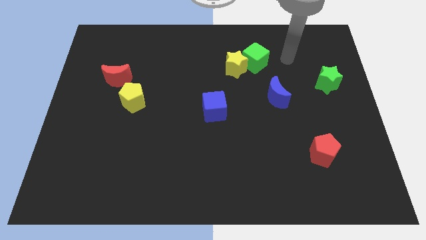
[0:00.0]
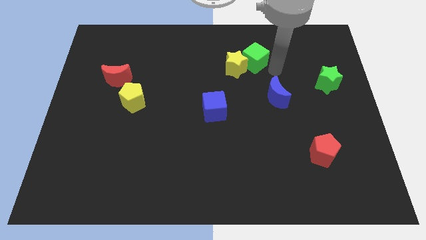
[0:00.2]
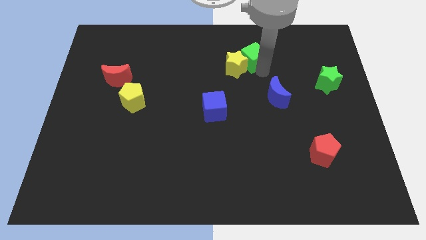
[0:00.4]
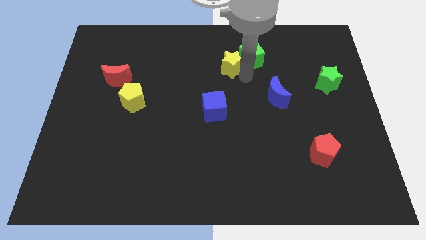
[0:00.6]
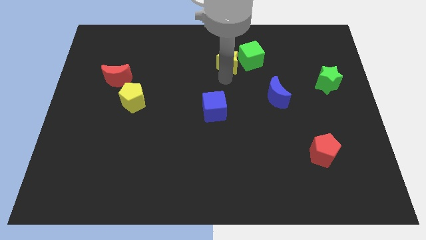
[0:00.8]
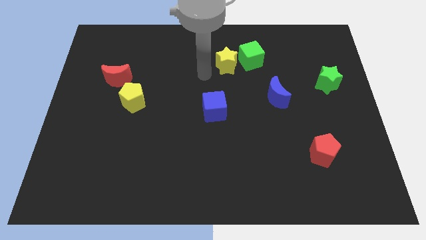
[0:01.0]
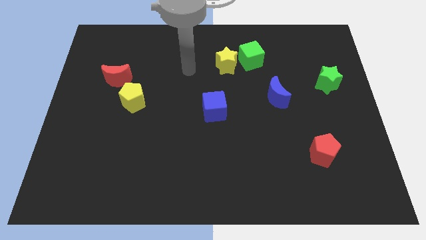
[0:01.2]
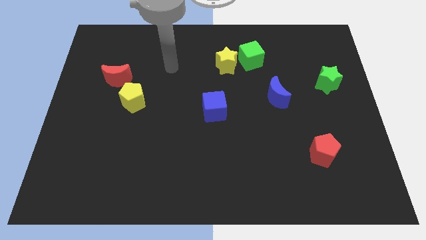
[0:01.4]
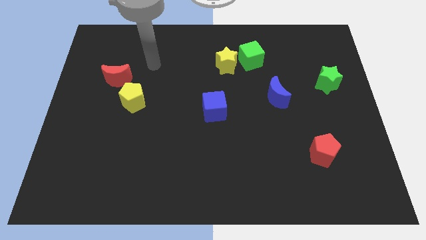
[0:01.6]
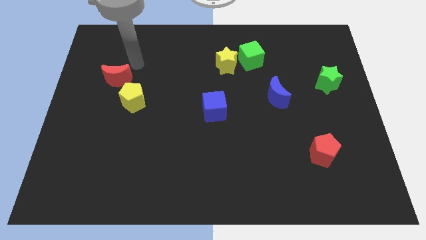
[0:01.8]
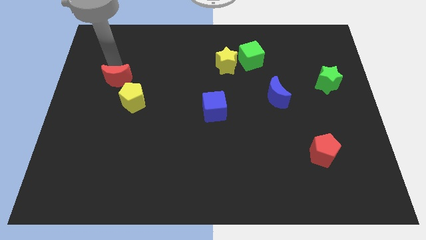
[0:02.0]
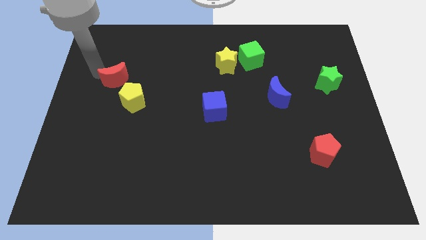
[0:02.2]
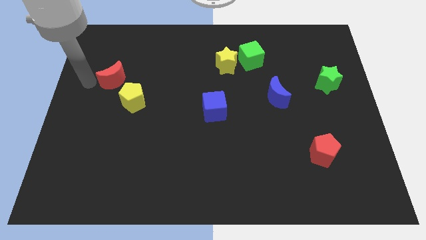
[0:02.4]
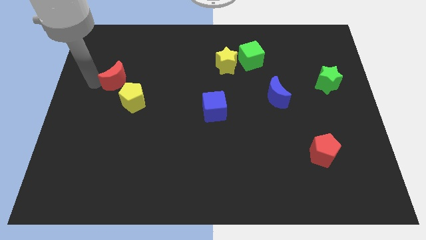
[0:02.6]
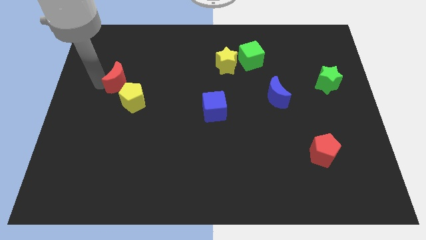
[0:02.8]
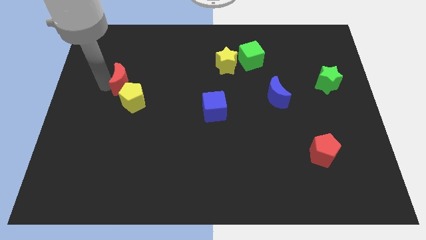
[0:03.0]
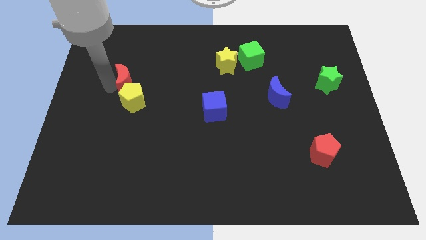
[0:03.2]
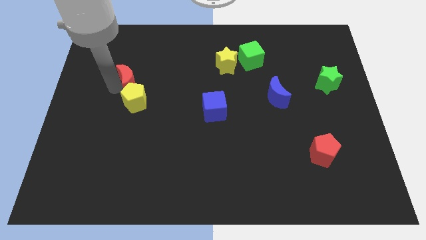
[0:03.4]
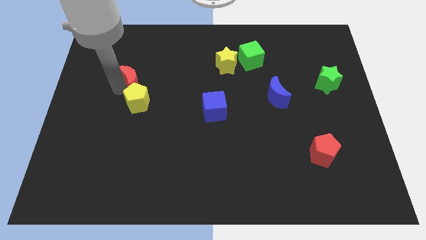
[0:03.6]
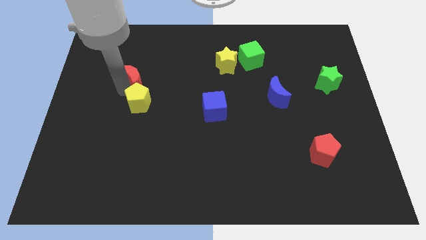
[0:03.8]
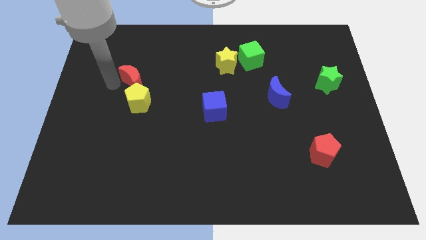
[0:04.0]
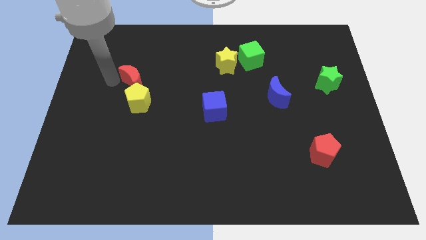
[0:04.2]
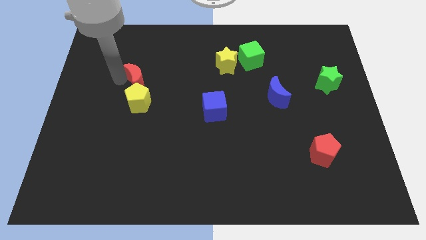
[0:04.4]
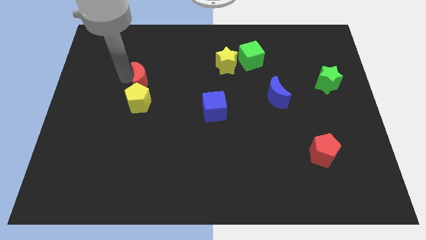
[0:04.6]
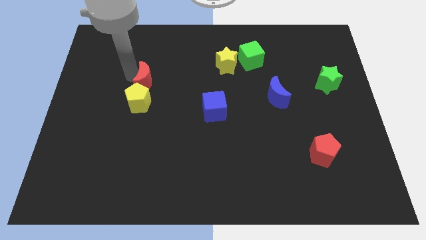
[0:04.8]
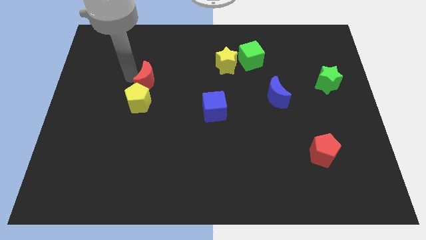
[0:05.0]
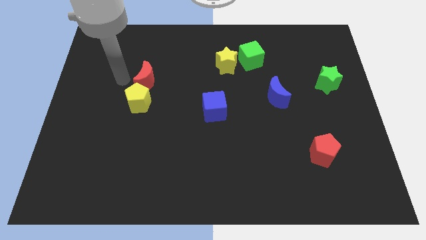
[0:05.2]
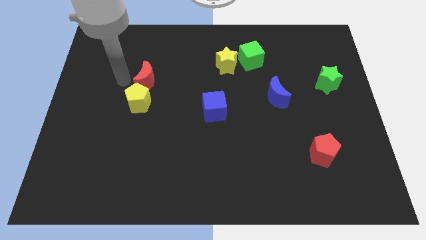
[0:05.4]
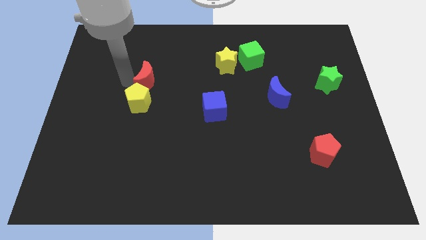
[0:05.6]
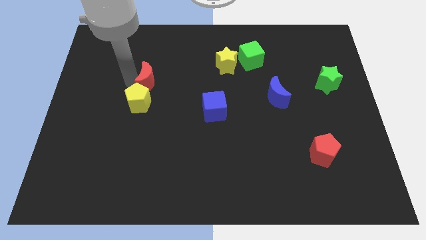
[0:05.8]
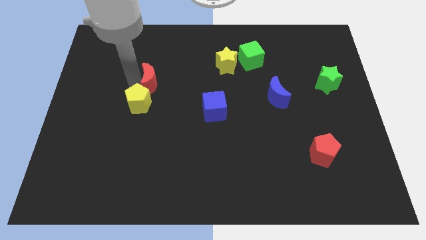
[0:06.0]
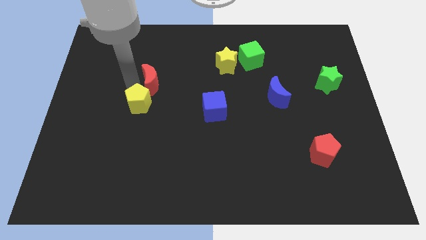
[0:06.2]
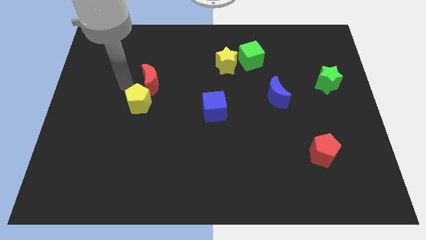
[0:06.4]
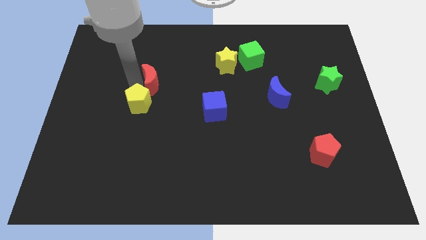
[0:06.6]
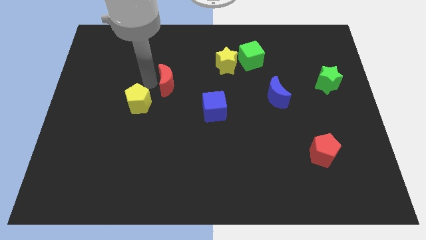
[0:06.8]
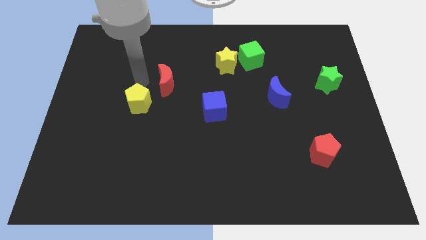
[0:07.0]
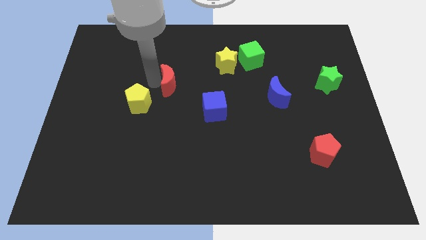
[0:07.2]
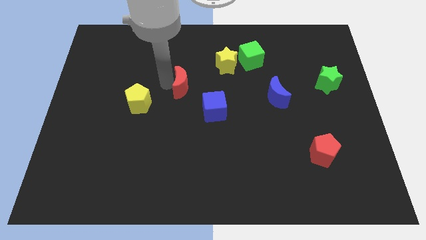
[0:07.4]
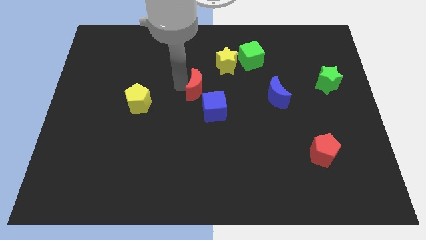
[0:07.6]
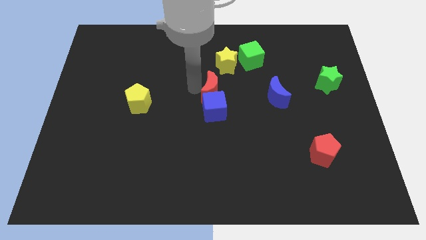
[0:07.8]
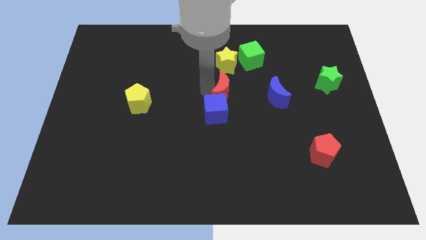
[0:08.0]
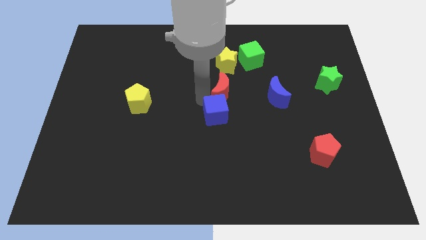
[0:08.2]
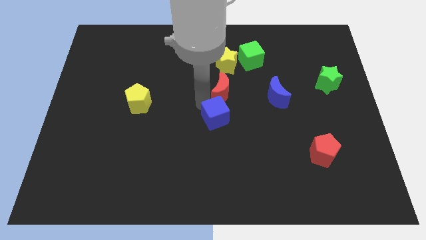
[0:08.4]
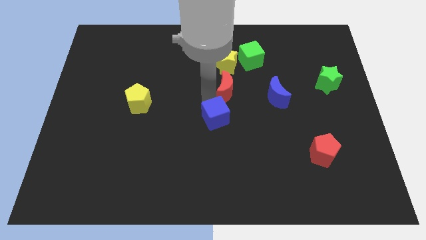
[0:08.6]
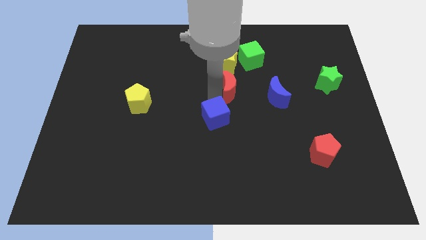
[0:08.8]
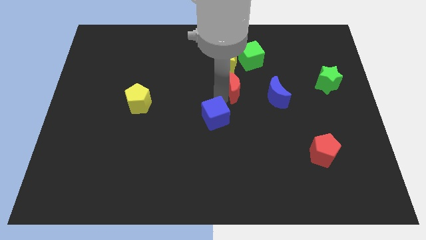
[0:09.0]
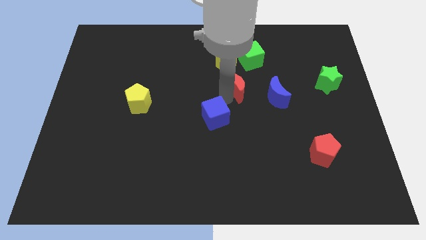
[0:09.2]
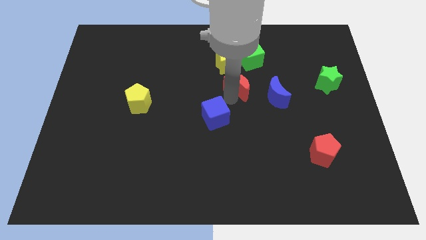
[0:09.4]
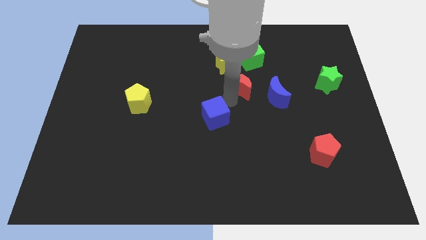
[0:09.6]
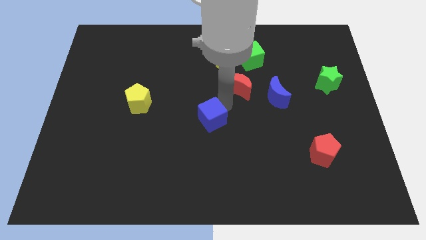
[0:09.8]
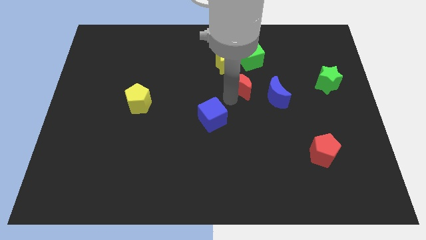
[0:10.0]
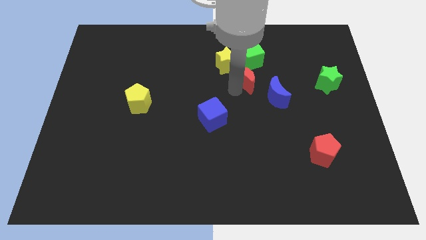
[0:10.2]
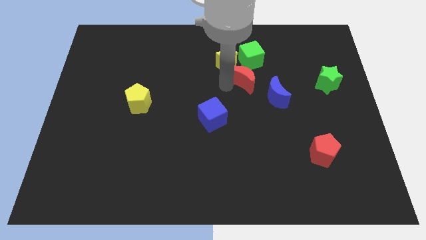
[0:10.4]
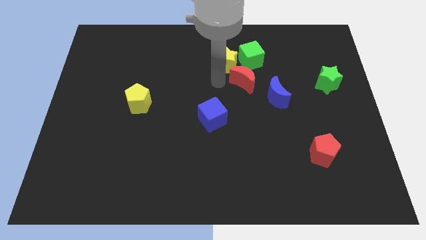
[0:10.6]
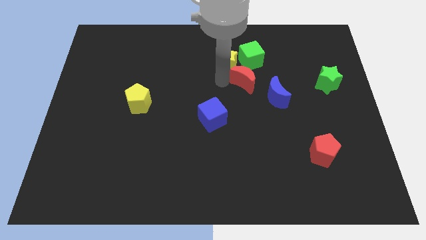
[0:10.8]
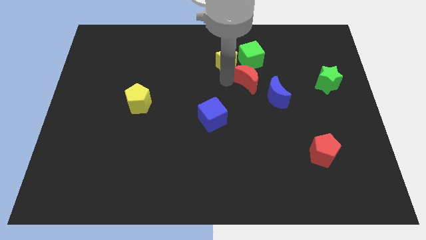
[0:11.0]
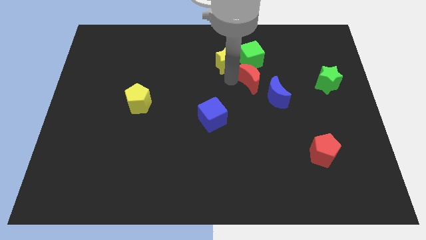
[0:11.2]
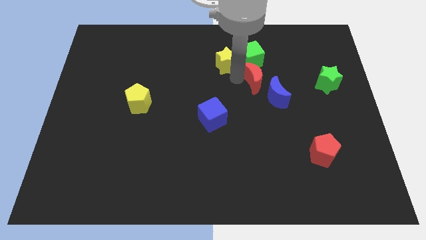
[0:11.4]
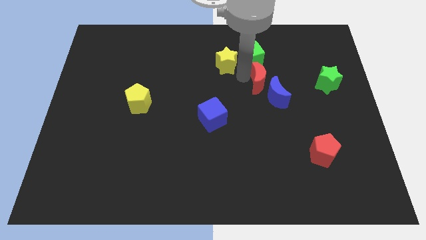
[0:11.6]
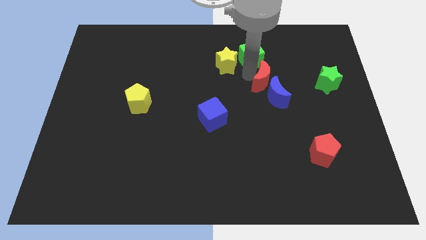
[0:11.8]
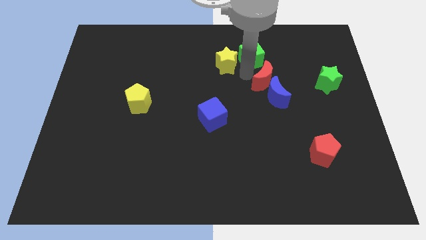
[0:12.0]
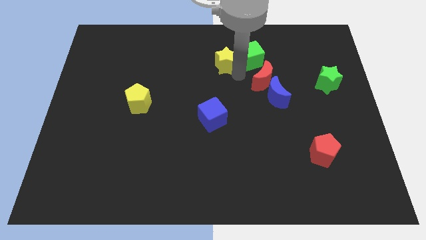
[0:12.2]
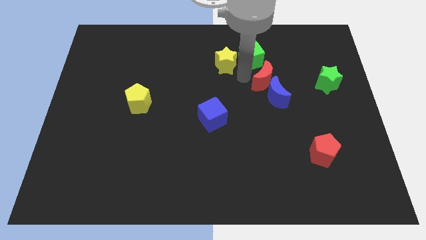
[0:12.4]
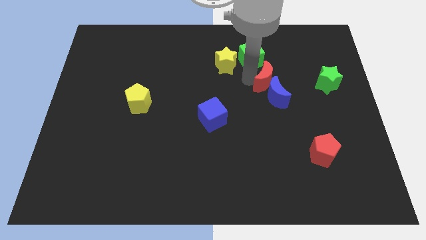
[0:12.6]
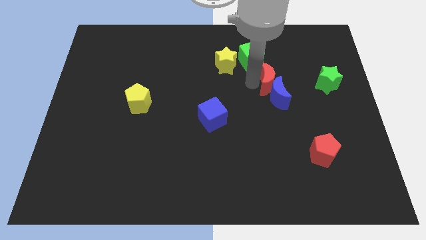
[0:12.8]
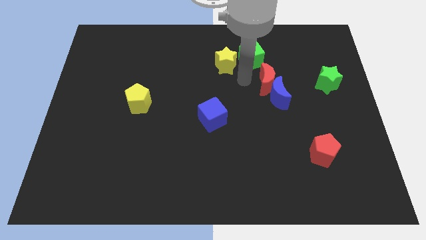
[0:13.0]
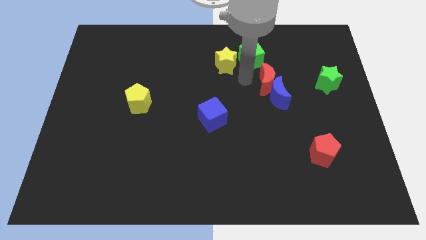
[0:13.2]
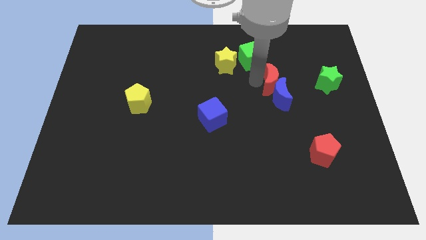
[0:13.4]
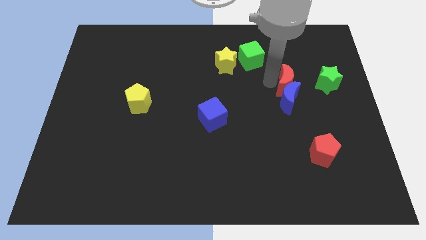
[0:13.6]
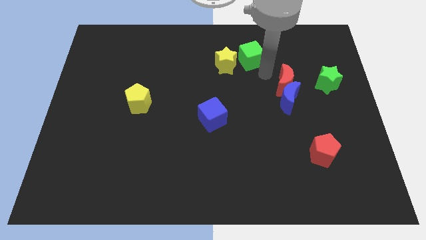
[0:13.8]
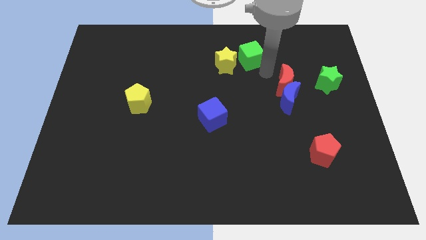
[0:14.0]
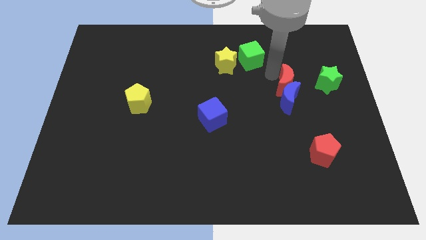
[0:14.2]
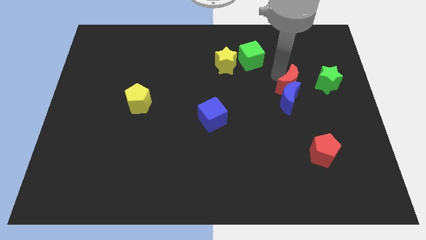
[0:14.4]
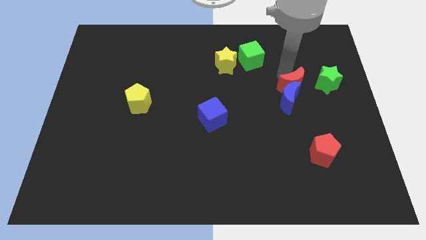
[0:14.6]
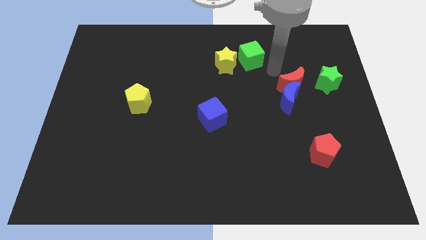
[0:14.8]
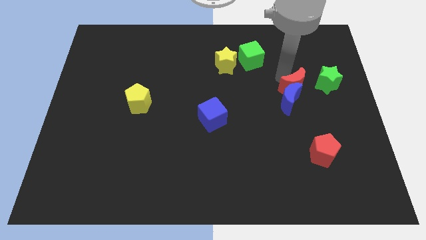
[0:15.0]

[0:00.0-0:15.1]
put the red moon to the bottom left side of the green star
